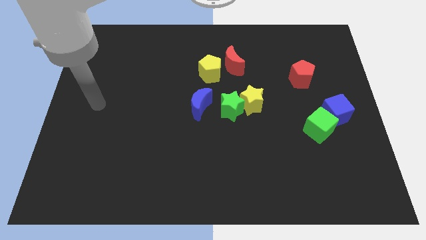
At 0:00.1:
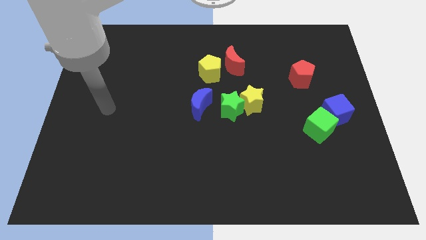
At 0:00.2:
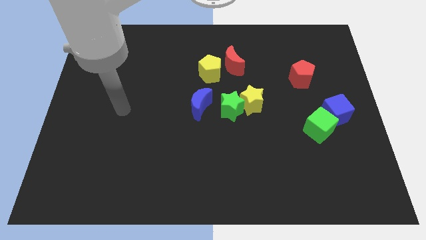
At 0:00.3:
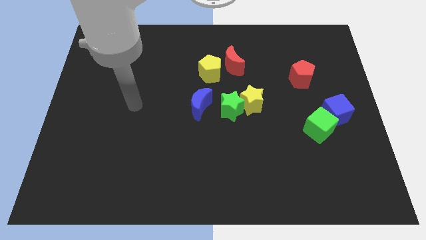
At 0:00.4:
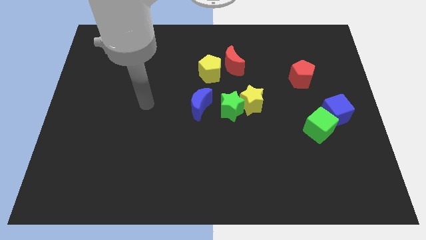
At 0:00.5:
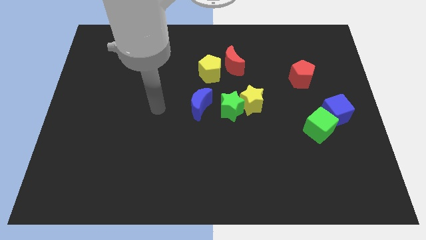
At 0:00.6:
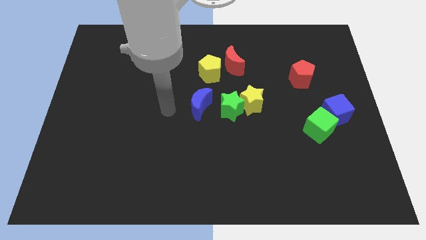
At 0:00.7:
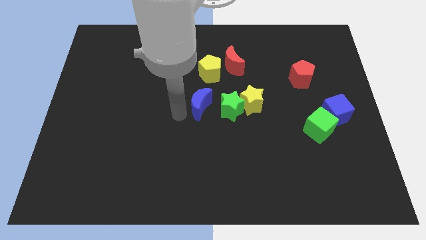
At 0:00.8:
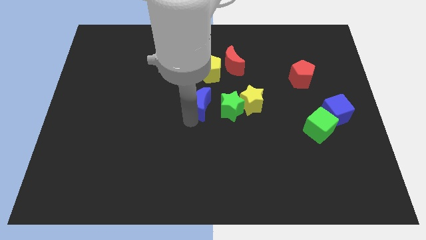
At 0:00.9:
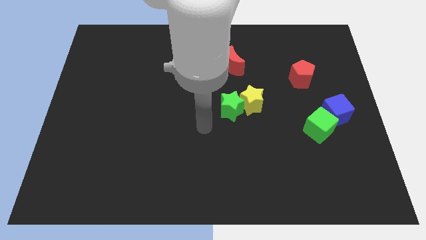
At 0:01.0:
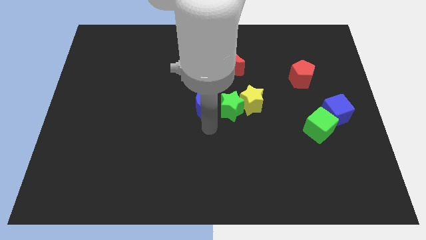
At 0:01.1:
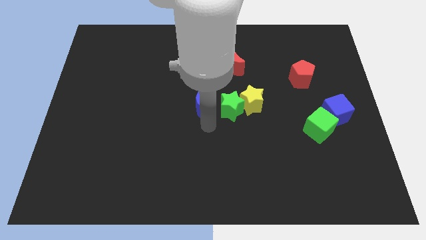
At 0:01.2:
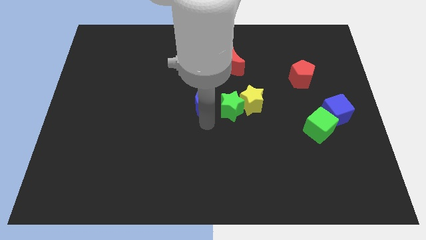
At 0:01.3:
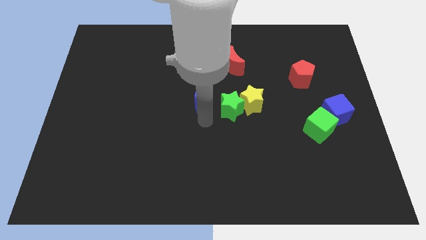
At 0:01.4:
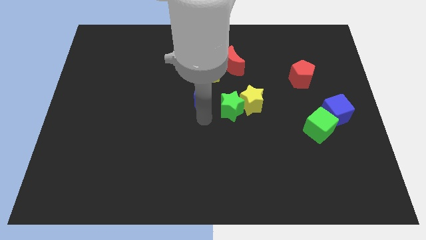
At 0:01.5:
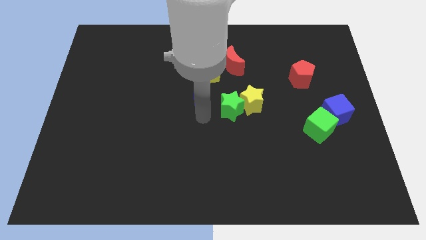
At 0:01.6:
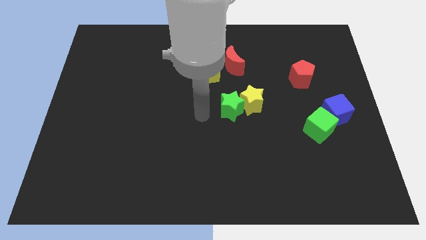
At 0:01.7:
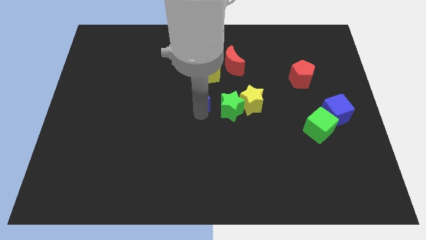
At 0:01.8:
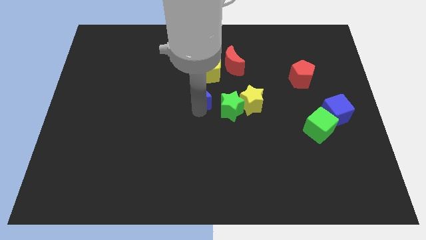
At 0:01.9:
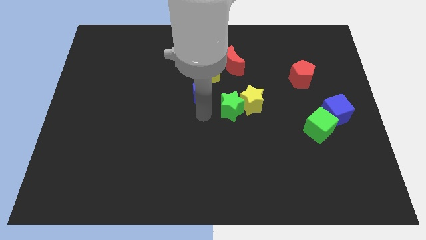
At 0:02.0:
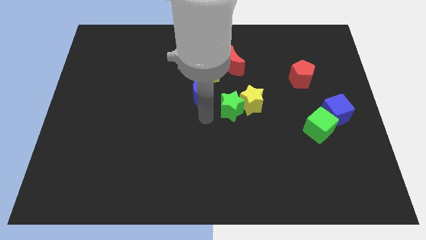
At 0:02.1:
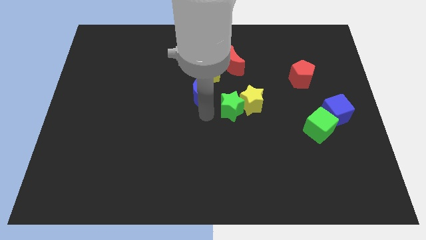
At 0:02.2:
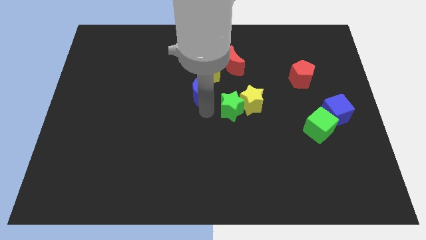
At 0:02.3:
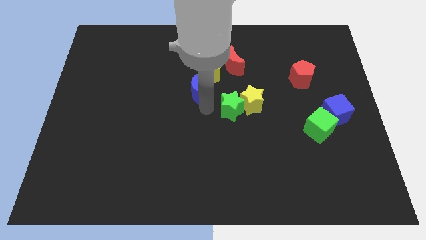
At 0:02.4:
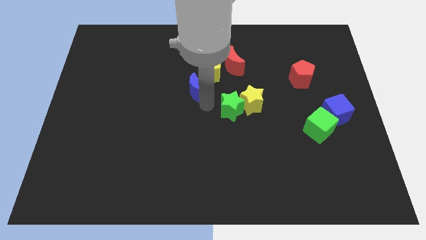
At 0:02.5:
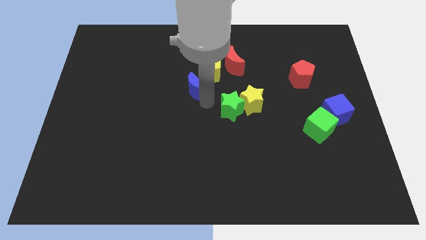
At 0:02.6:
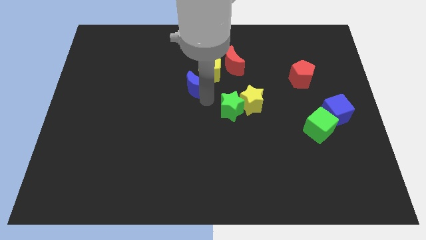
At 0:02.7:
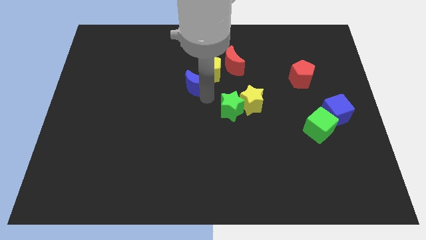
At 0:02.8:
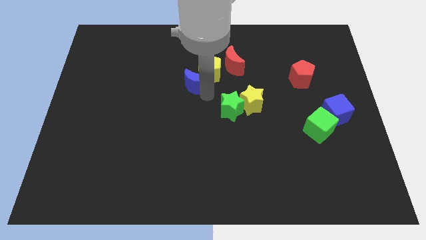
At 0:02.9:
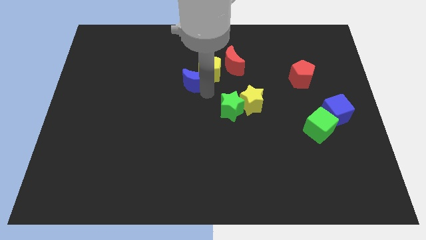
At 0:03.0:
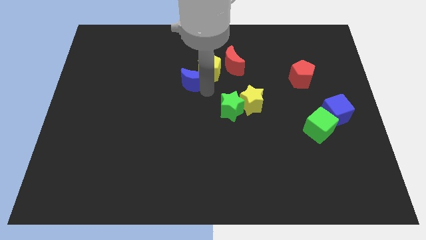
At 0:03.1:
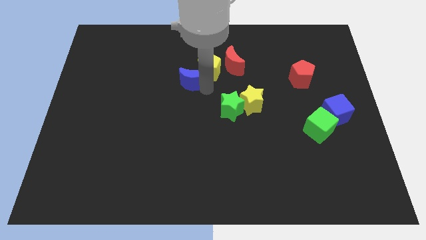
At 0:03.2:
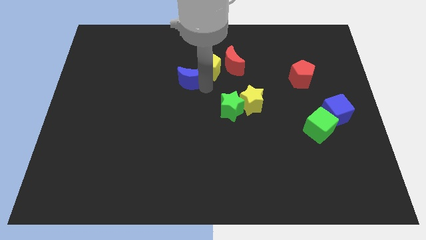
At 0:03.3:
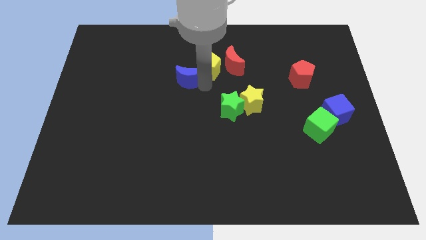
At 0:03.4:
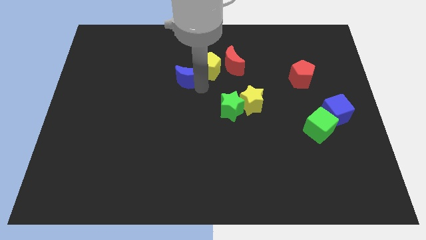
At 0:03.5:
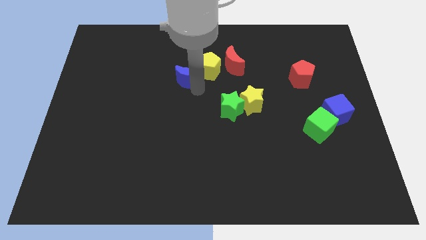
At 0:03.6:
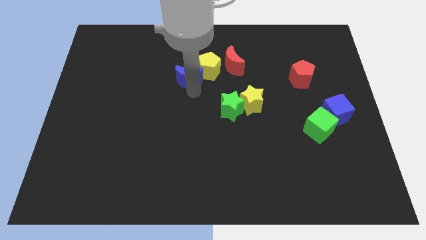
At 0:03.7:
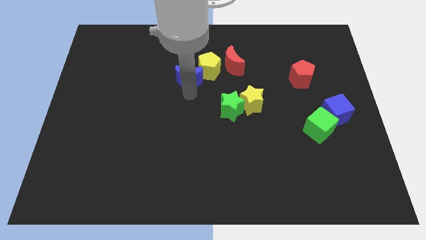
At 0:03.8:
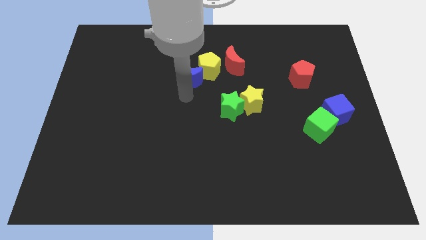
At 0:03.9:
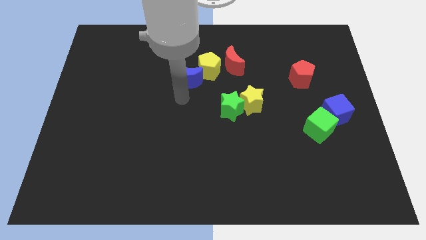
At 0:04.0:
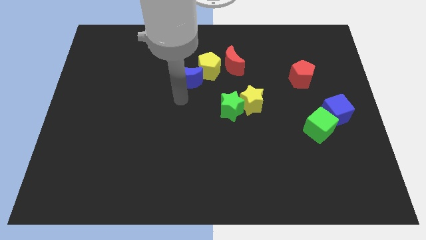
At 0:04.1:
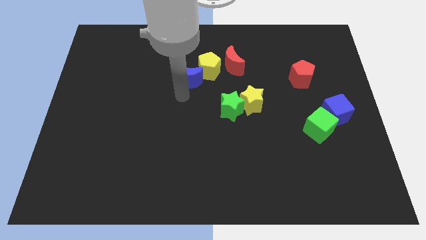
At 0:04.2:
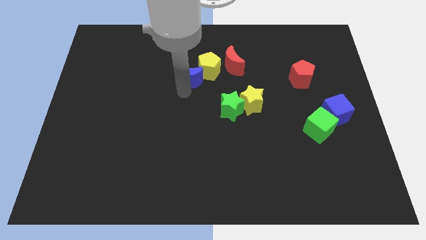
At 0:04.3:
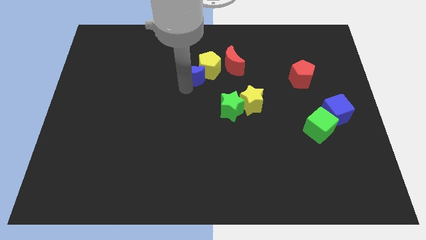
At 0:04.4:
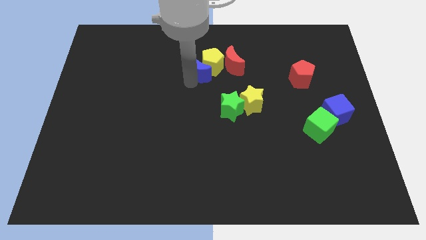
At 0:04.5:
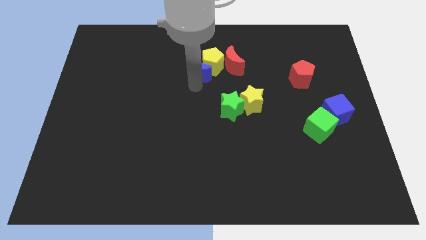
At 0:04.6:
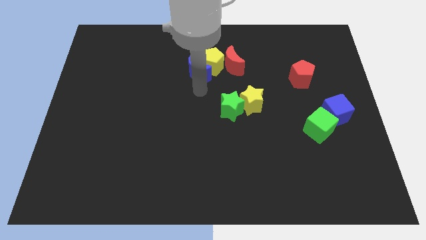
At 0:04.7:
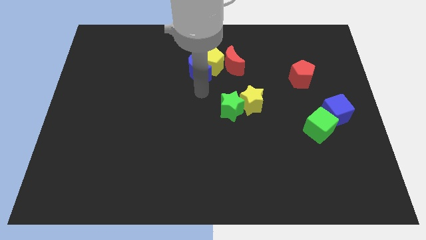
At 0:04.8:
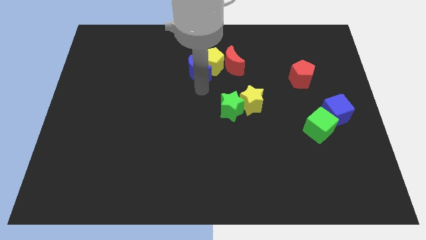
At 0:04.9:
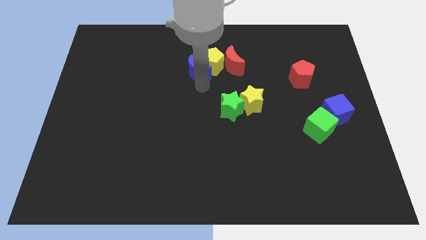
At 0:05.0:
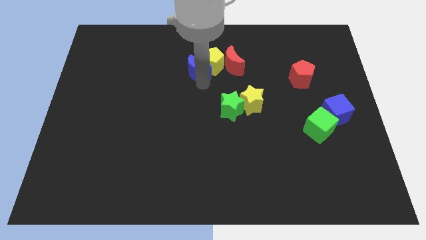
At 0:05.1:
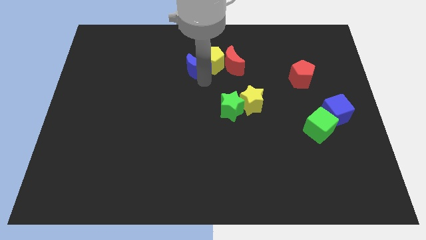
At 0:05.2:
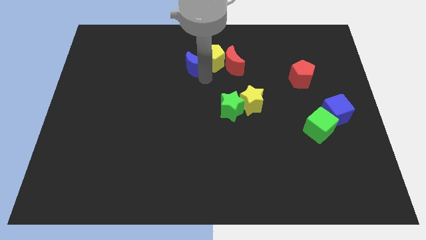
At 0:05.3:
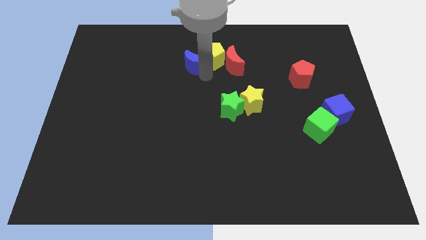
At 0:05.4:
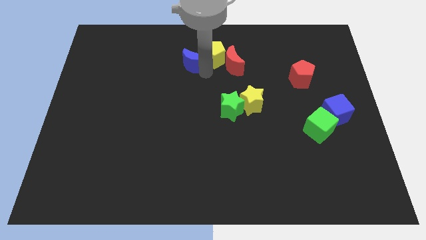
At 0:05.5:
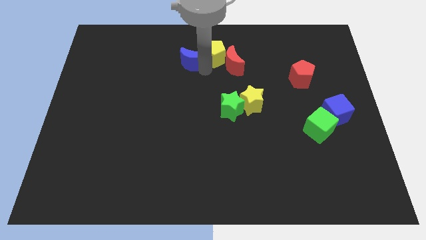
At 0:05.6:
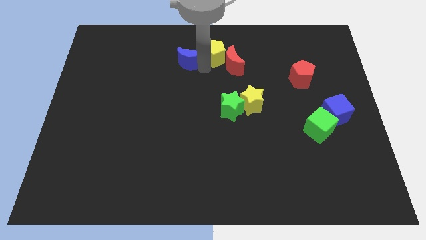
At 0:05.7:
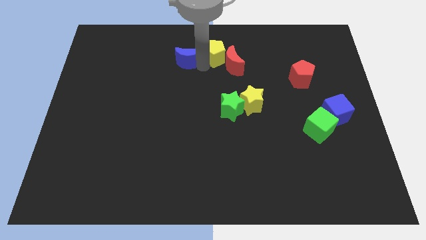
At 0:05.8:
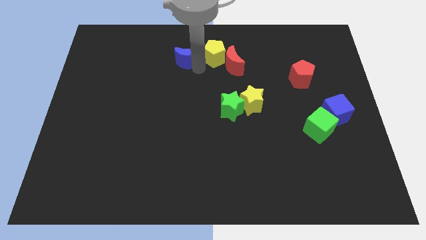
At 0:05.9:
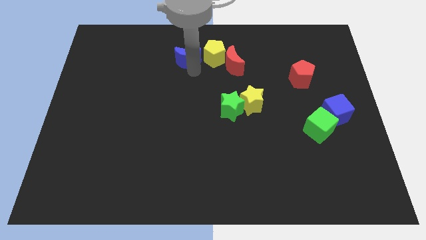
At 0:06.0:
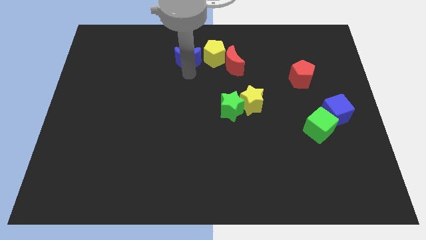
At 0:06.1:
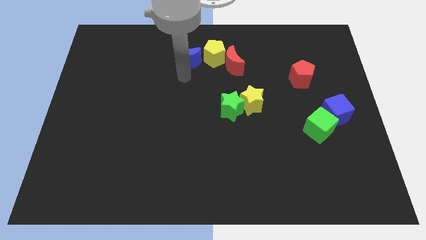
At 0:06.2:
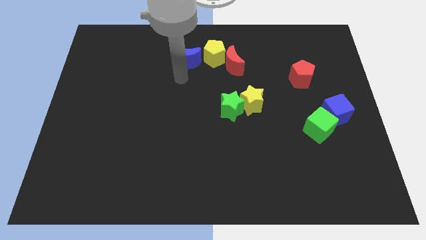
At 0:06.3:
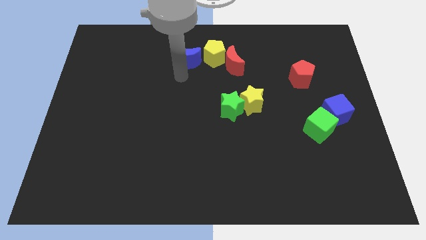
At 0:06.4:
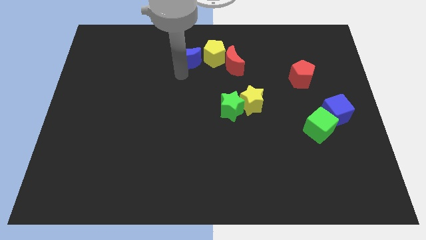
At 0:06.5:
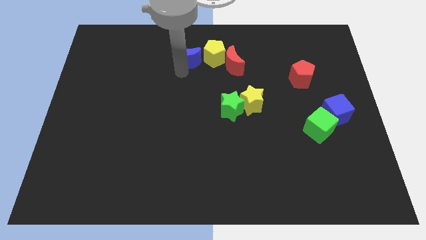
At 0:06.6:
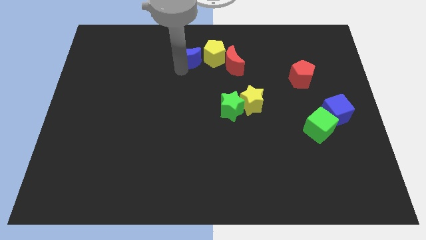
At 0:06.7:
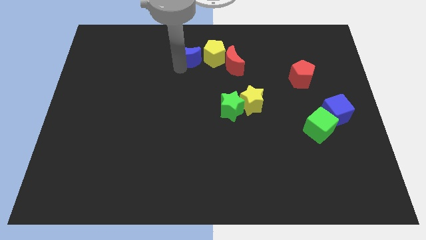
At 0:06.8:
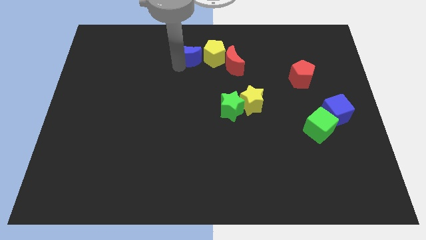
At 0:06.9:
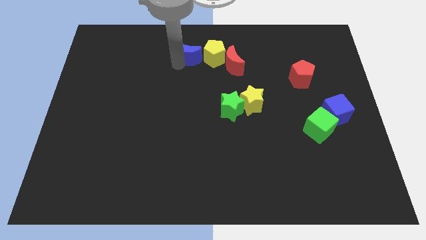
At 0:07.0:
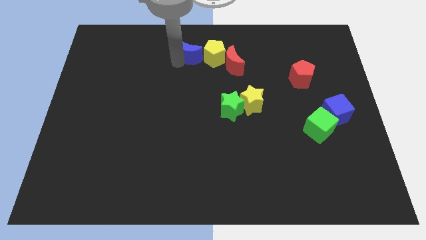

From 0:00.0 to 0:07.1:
put the blue moon to the top left of the yellow pentagon

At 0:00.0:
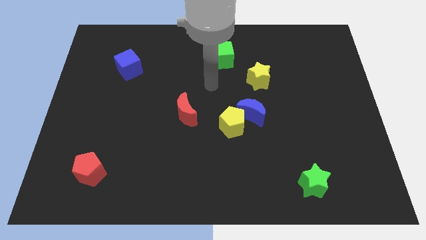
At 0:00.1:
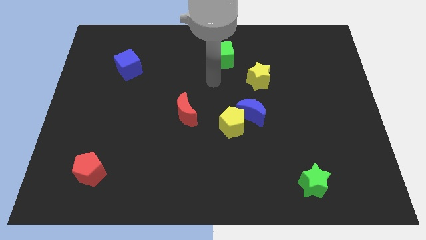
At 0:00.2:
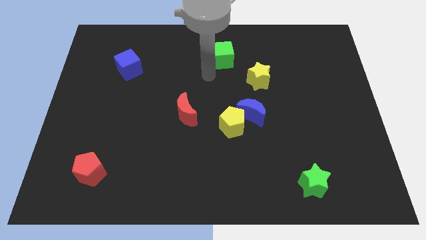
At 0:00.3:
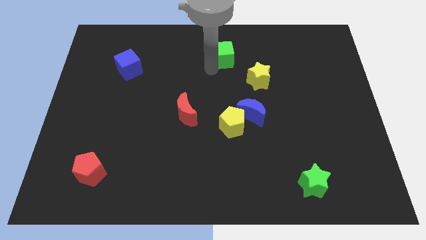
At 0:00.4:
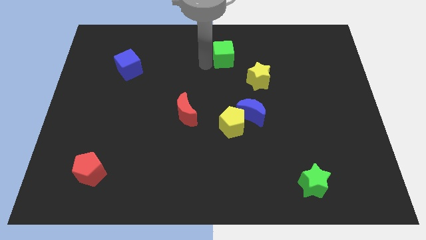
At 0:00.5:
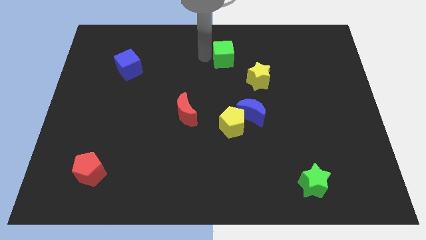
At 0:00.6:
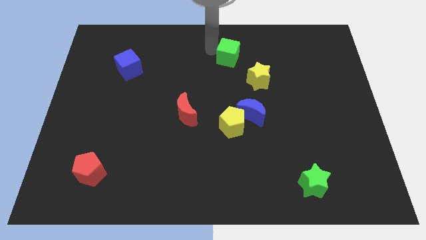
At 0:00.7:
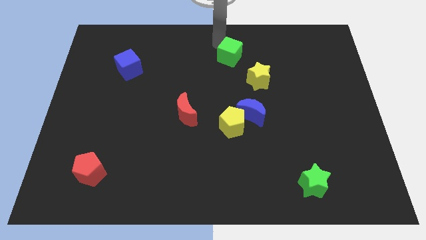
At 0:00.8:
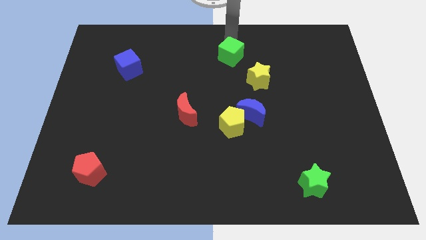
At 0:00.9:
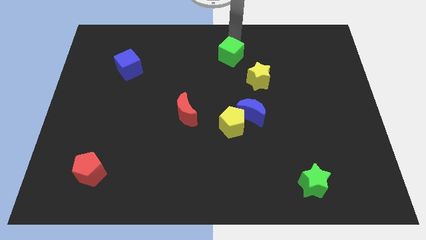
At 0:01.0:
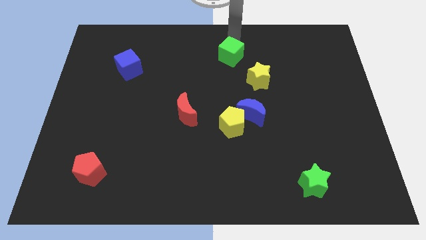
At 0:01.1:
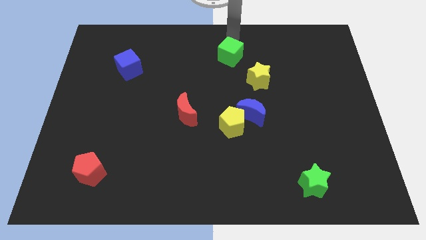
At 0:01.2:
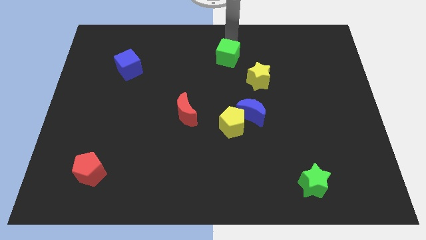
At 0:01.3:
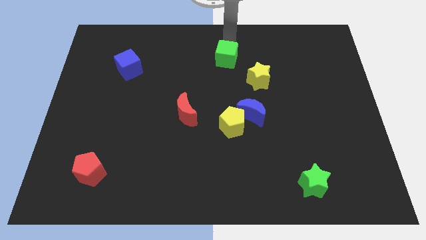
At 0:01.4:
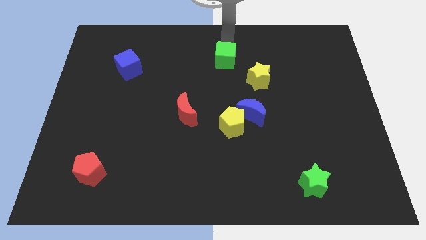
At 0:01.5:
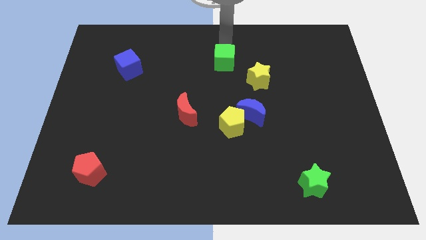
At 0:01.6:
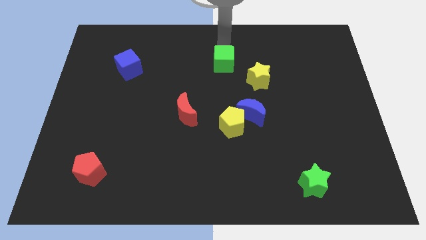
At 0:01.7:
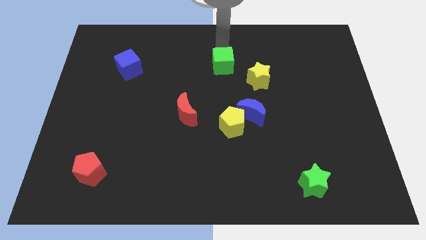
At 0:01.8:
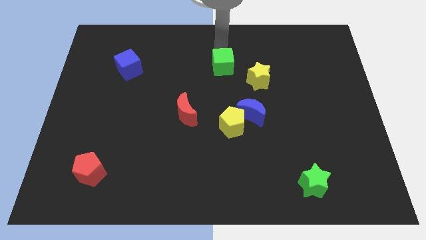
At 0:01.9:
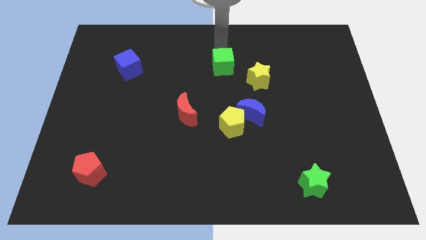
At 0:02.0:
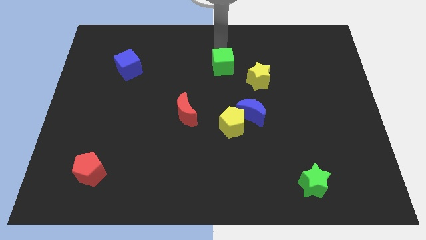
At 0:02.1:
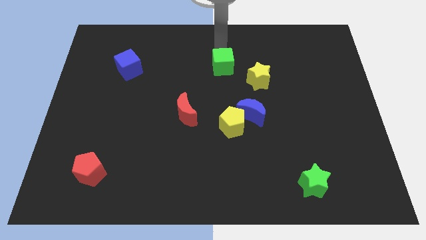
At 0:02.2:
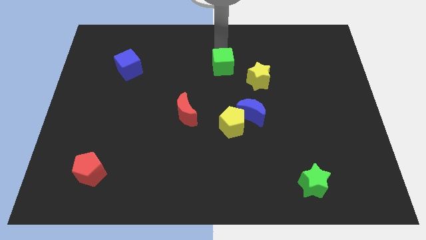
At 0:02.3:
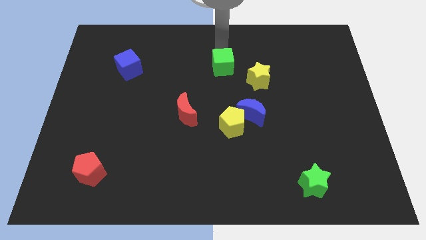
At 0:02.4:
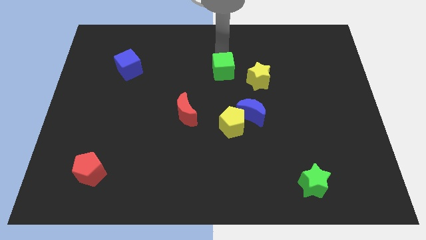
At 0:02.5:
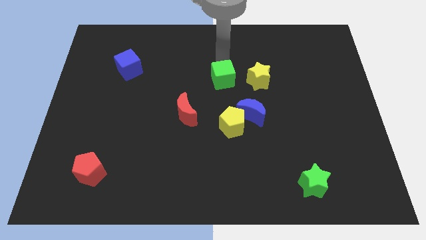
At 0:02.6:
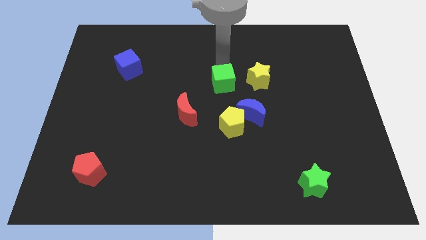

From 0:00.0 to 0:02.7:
push the green cube diagonally up and to the left of the blue moon
